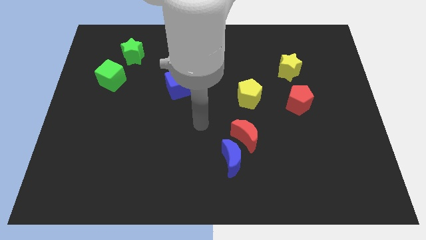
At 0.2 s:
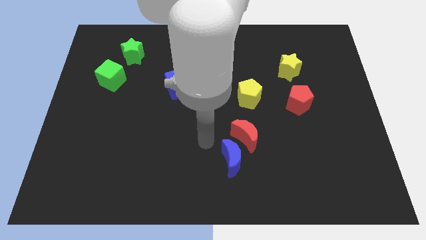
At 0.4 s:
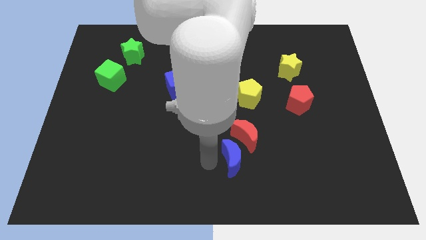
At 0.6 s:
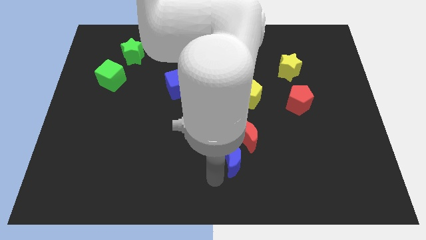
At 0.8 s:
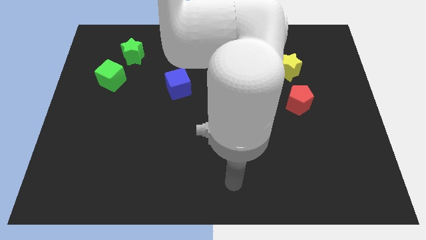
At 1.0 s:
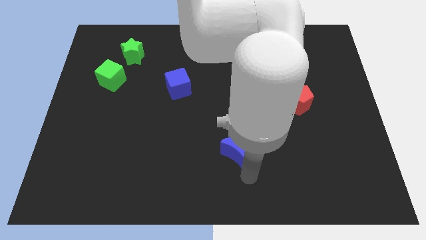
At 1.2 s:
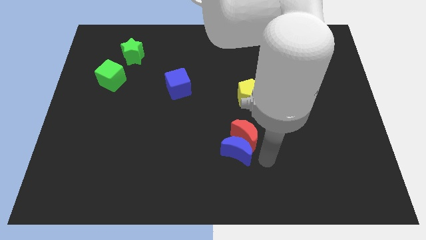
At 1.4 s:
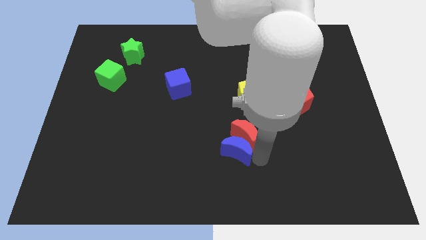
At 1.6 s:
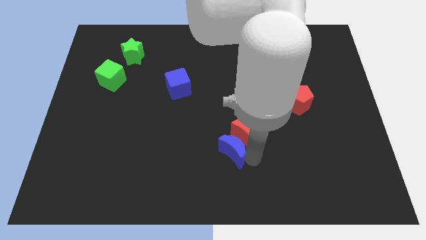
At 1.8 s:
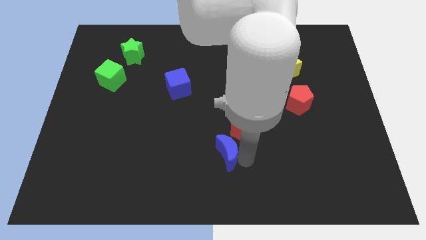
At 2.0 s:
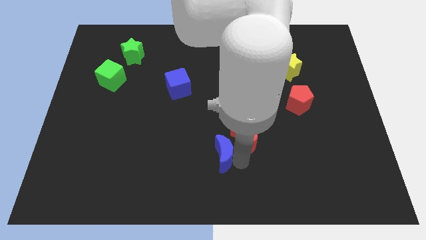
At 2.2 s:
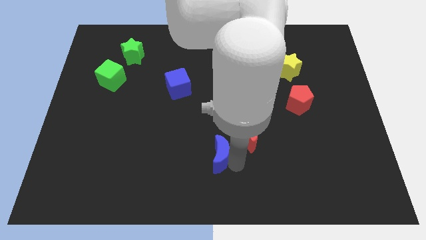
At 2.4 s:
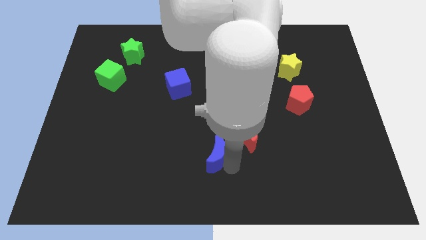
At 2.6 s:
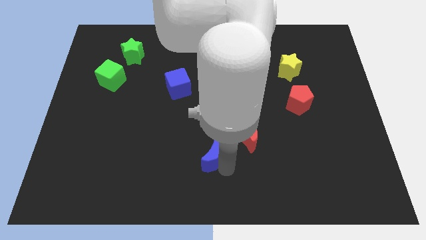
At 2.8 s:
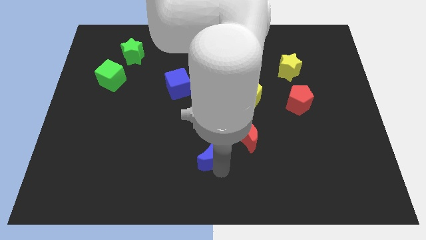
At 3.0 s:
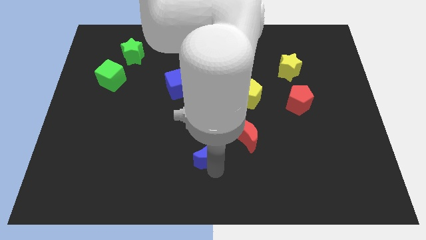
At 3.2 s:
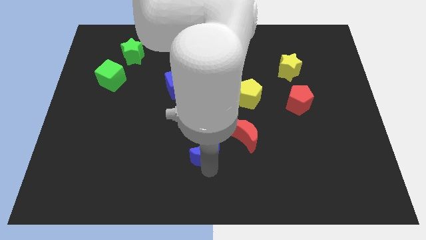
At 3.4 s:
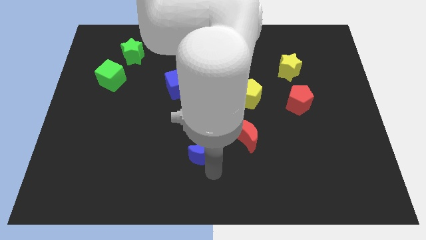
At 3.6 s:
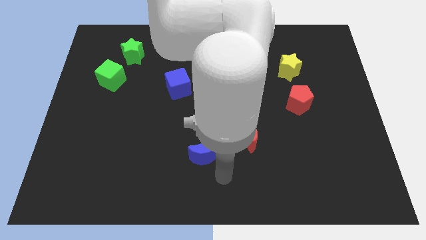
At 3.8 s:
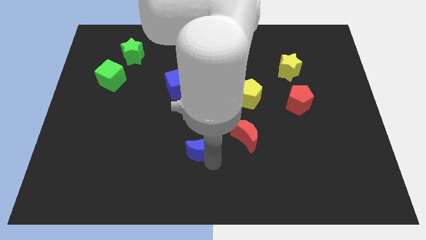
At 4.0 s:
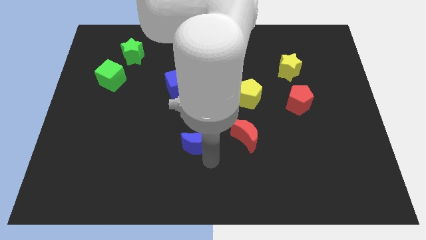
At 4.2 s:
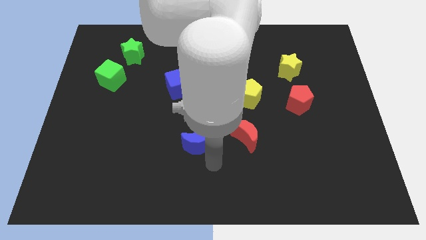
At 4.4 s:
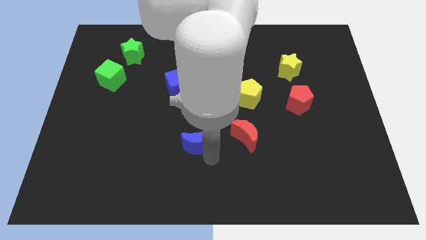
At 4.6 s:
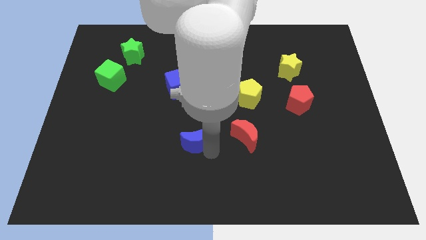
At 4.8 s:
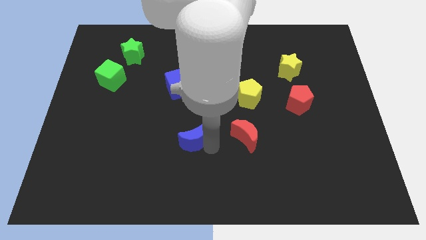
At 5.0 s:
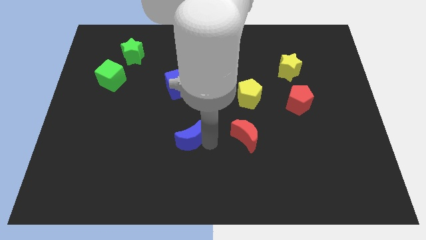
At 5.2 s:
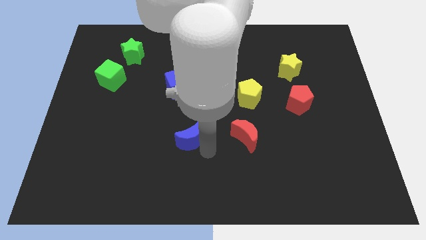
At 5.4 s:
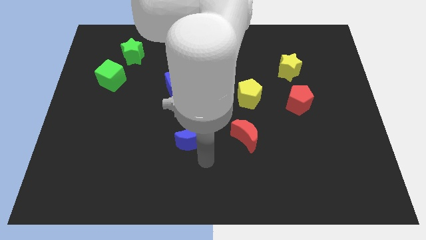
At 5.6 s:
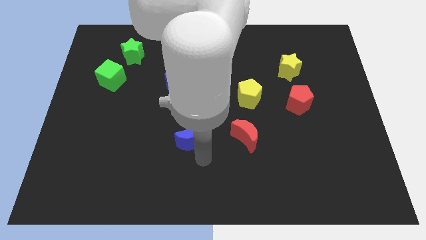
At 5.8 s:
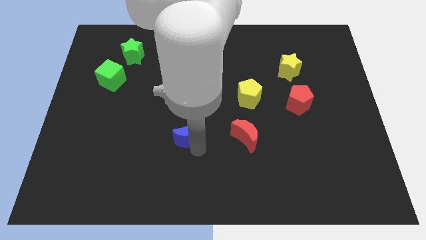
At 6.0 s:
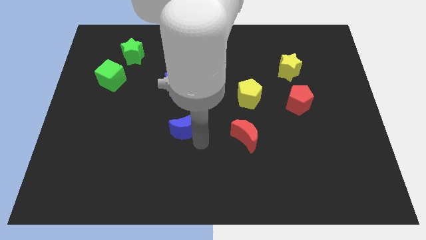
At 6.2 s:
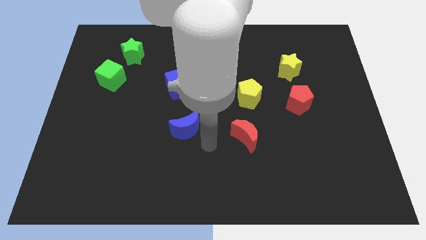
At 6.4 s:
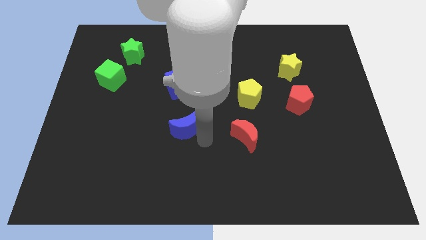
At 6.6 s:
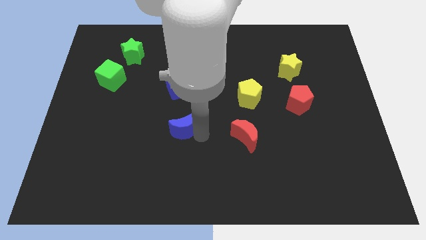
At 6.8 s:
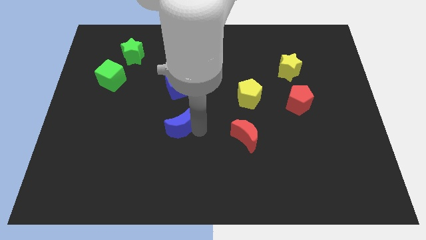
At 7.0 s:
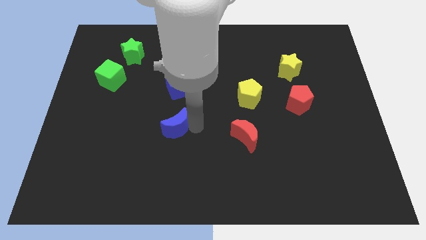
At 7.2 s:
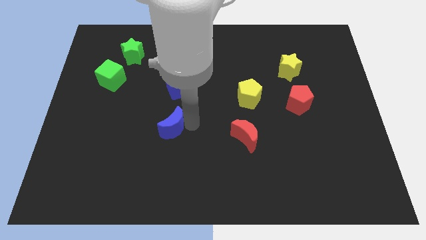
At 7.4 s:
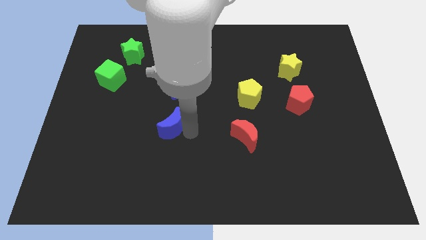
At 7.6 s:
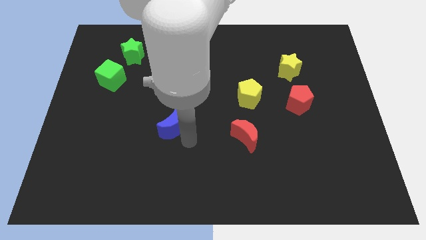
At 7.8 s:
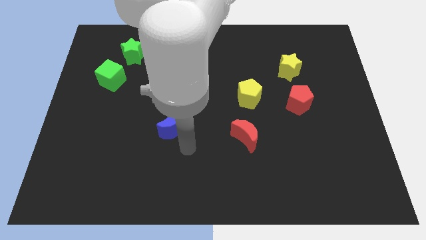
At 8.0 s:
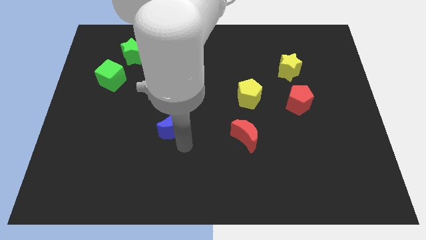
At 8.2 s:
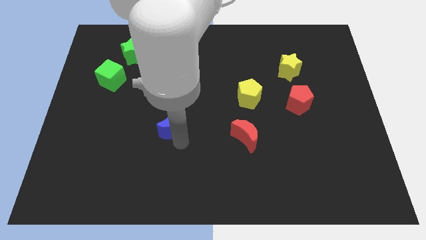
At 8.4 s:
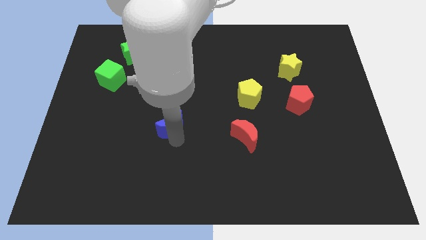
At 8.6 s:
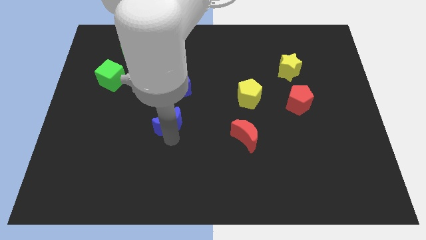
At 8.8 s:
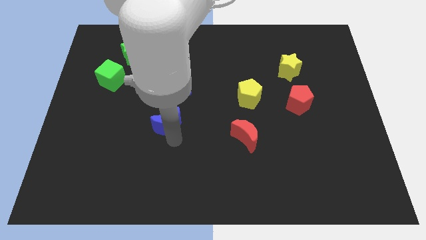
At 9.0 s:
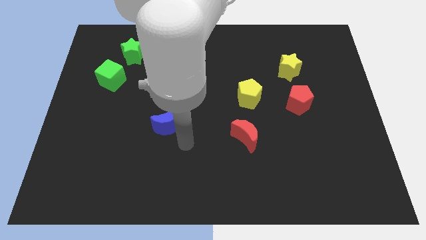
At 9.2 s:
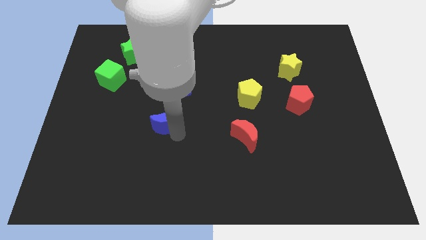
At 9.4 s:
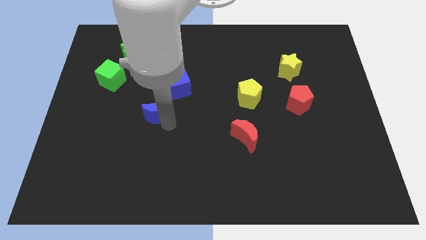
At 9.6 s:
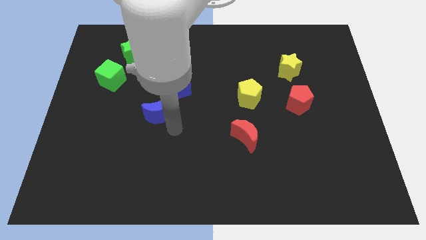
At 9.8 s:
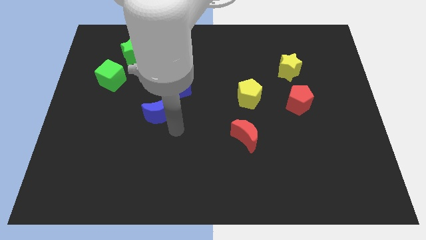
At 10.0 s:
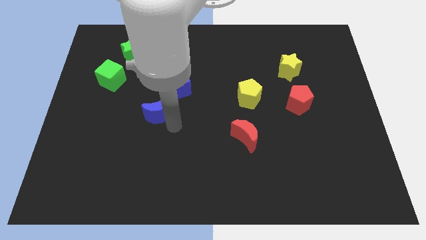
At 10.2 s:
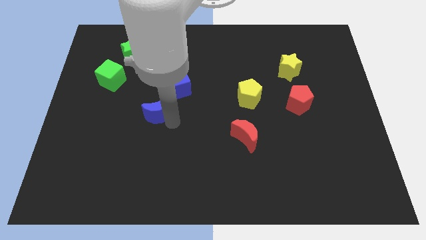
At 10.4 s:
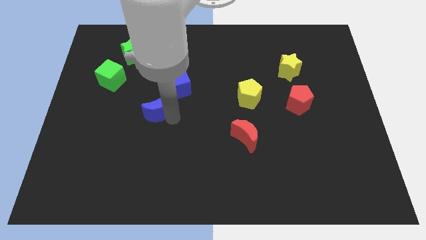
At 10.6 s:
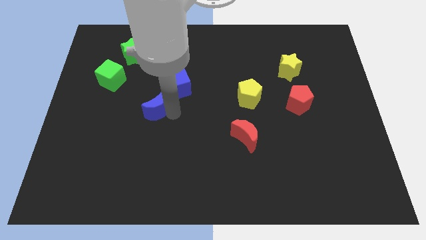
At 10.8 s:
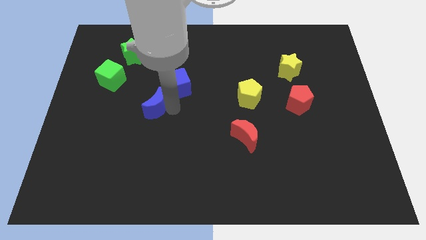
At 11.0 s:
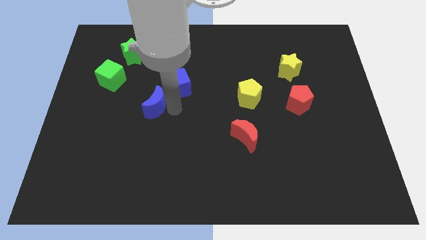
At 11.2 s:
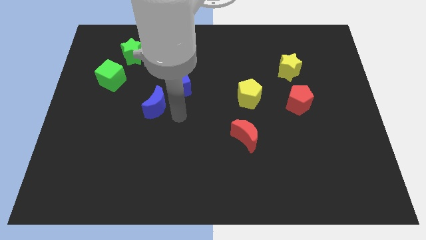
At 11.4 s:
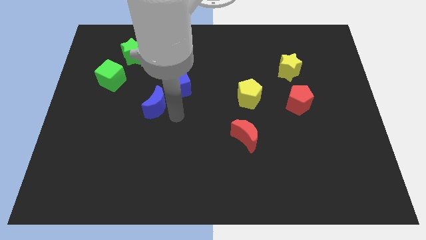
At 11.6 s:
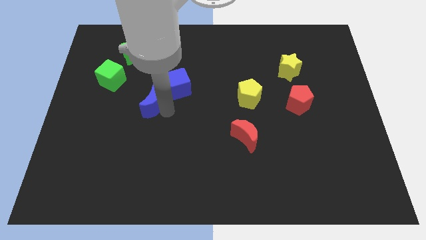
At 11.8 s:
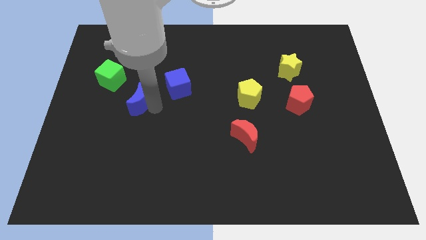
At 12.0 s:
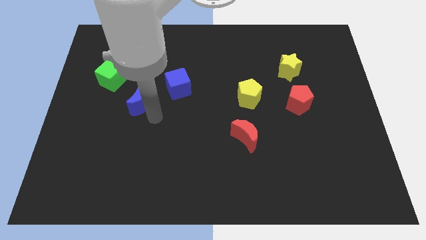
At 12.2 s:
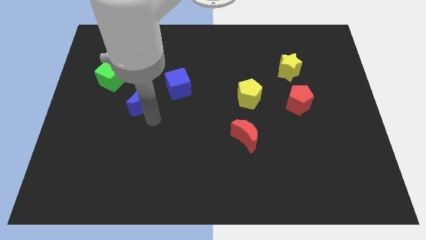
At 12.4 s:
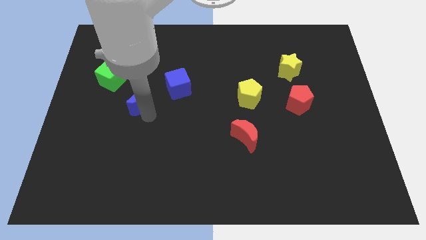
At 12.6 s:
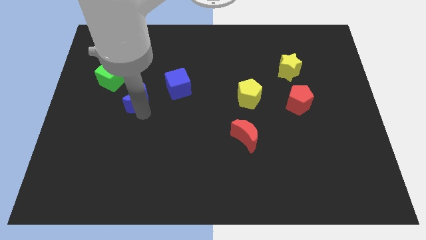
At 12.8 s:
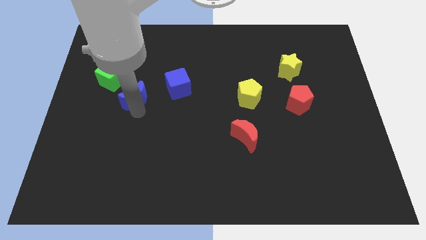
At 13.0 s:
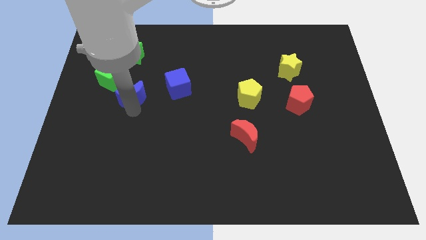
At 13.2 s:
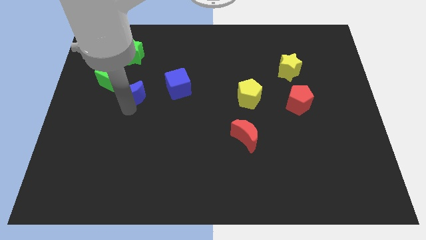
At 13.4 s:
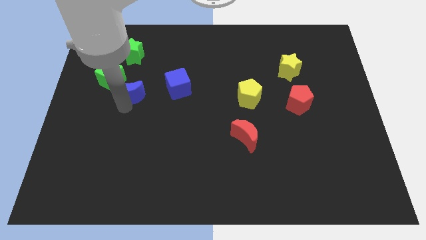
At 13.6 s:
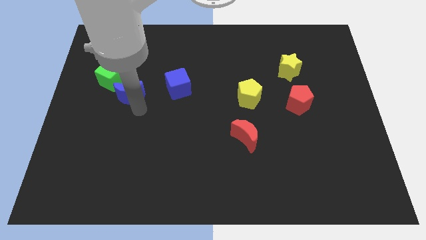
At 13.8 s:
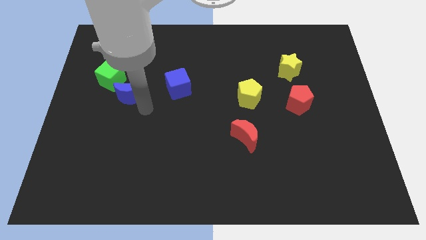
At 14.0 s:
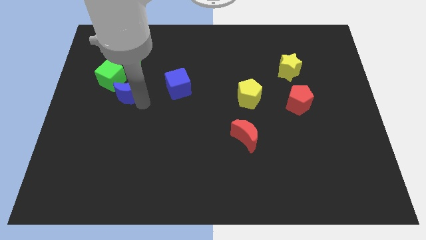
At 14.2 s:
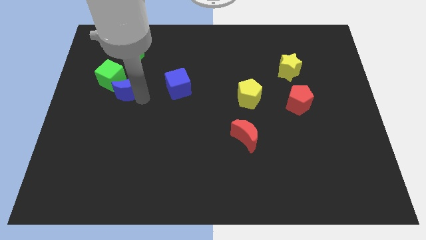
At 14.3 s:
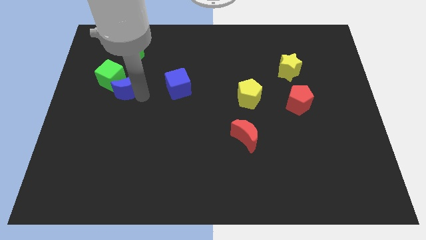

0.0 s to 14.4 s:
slide the blue moon to the green cube
